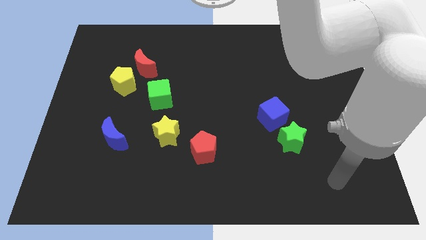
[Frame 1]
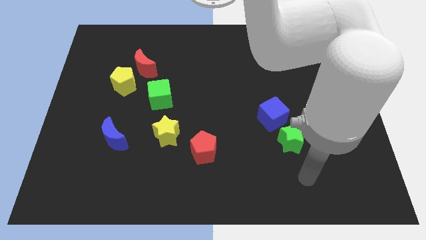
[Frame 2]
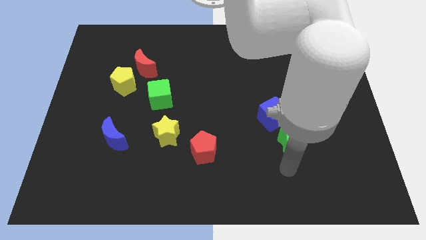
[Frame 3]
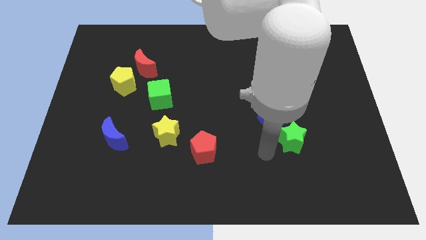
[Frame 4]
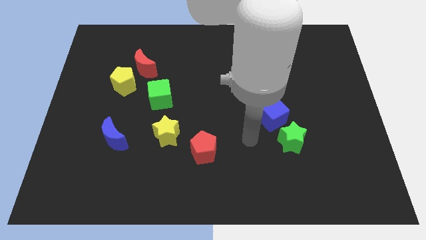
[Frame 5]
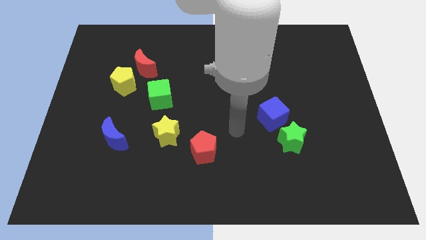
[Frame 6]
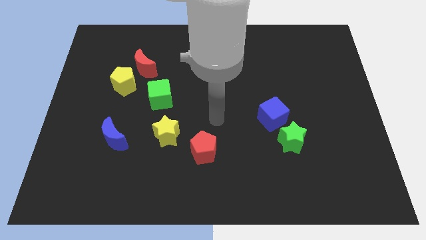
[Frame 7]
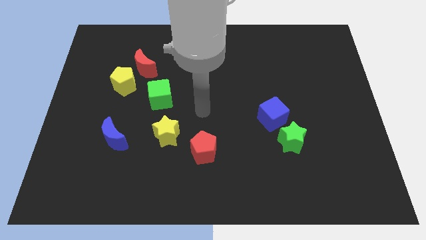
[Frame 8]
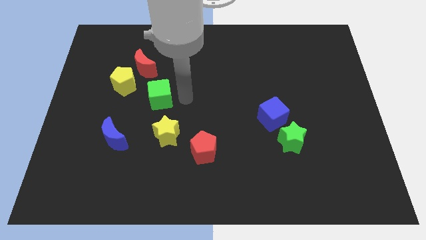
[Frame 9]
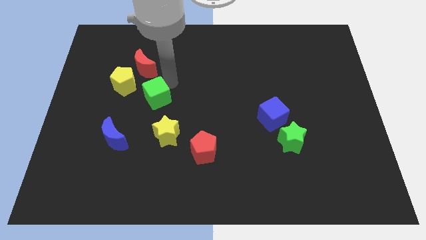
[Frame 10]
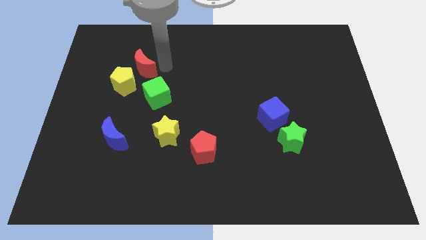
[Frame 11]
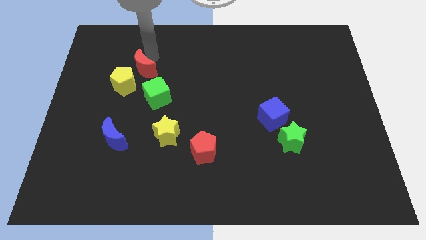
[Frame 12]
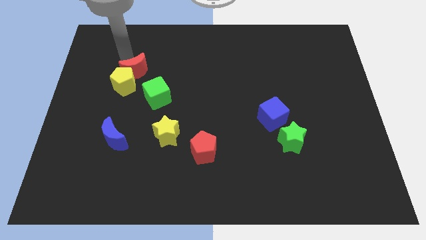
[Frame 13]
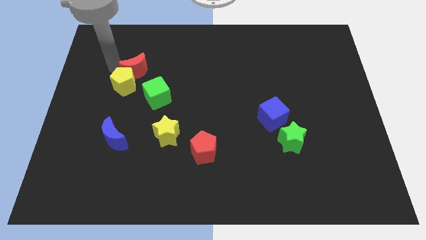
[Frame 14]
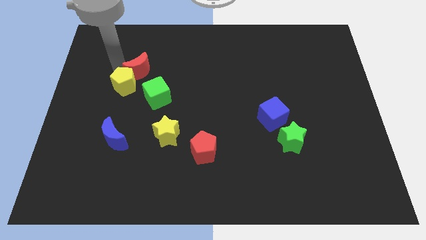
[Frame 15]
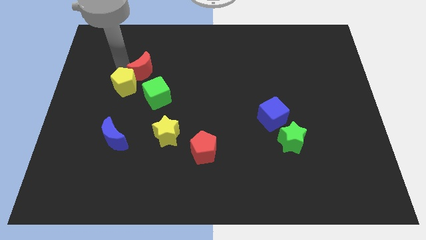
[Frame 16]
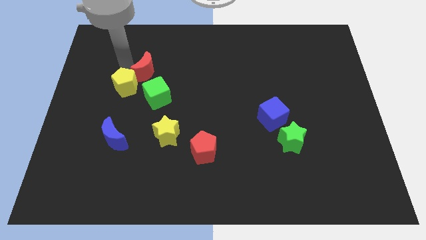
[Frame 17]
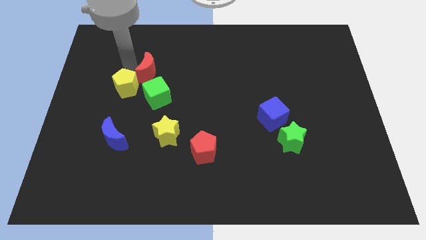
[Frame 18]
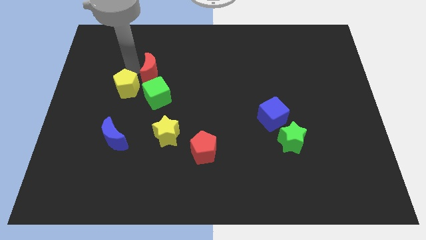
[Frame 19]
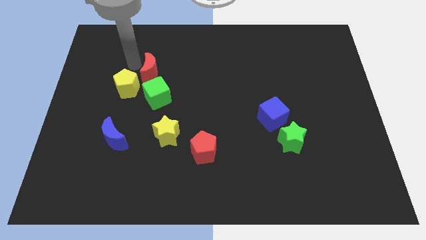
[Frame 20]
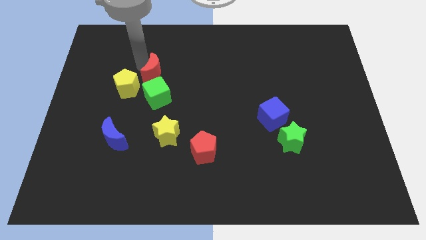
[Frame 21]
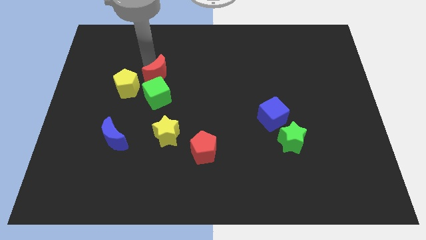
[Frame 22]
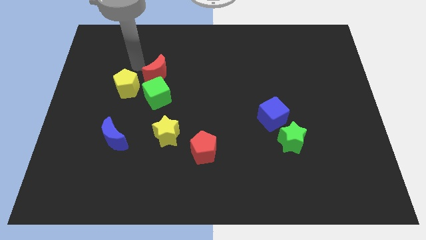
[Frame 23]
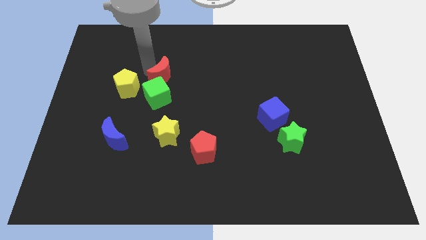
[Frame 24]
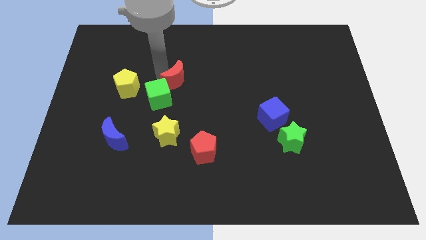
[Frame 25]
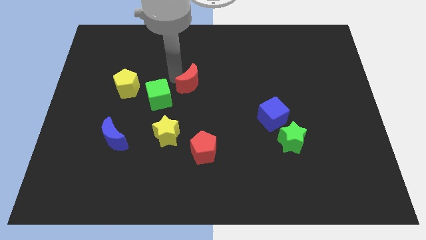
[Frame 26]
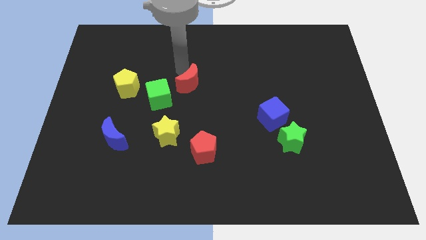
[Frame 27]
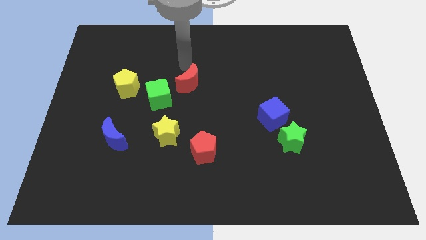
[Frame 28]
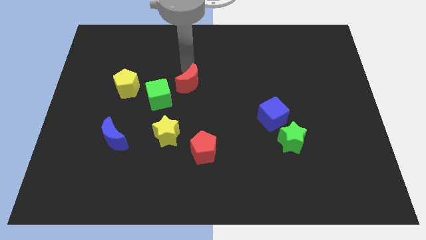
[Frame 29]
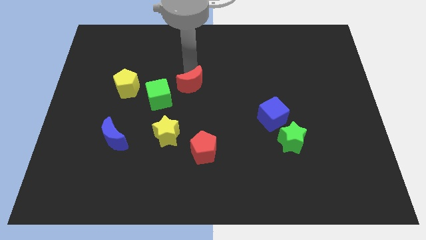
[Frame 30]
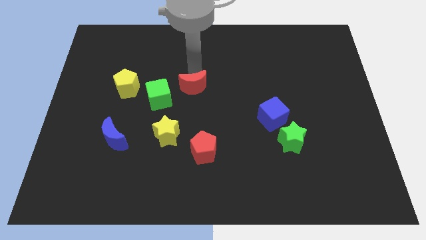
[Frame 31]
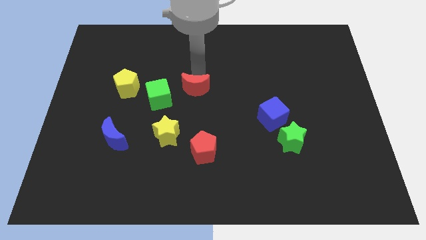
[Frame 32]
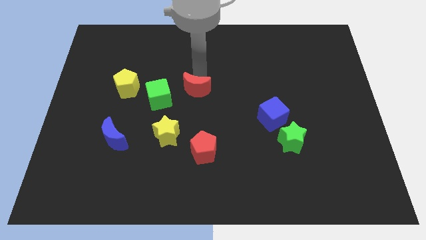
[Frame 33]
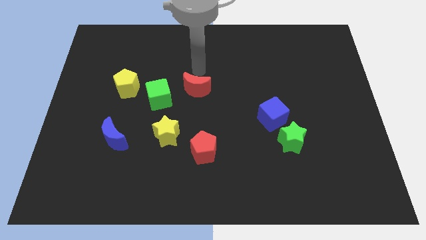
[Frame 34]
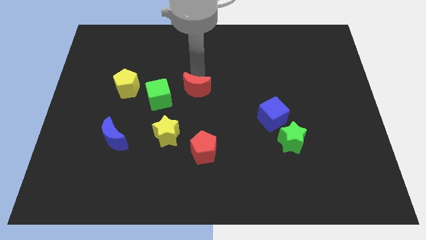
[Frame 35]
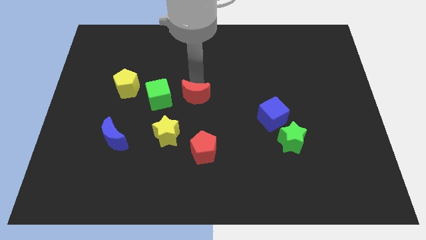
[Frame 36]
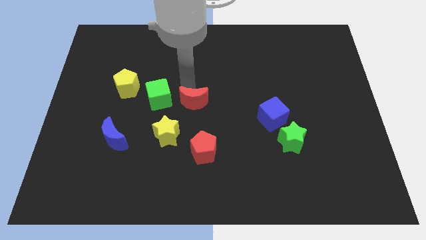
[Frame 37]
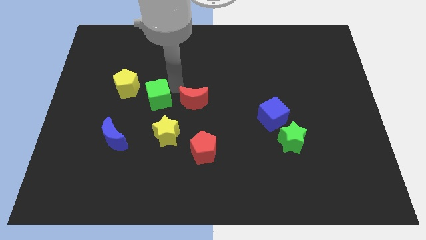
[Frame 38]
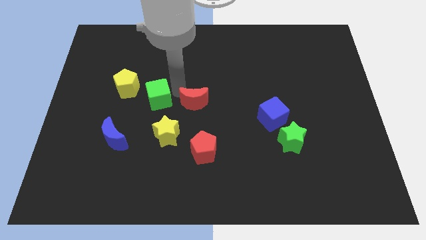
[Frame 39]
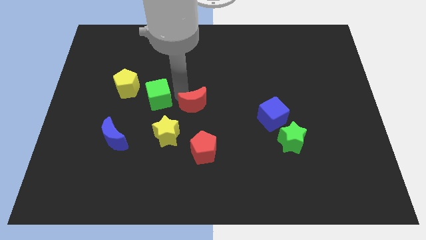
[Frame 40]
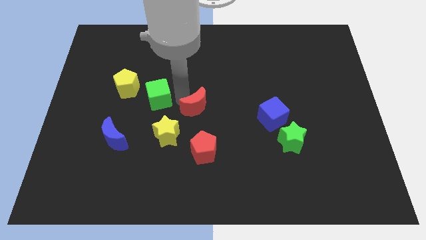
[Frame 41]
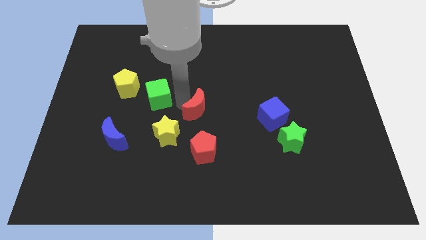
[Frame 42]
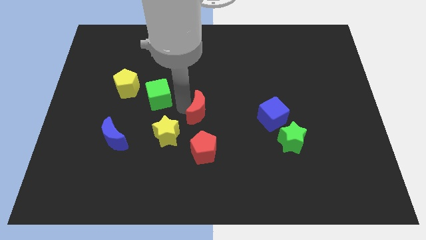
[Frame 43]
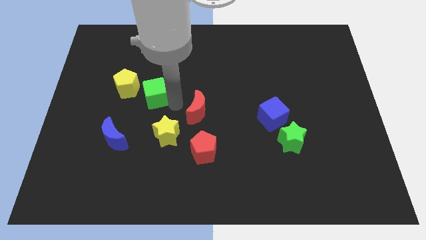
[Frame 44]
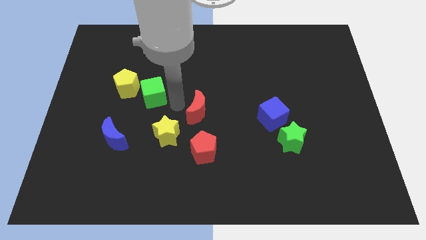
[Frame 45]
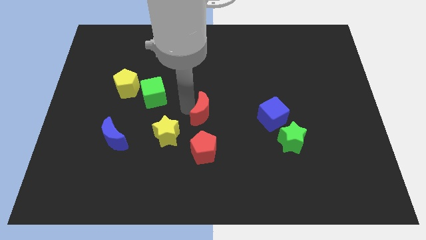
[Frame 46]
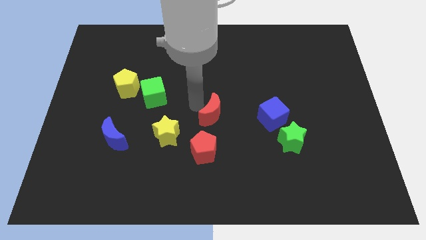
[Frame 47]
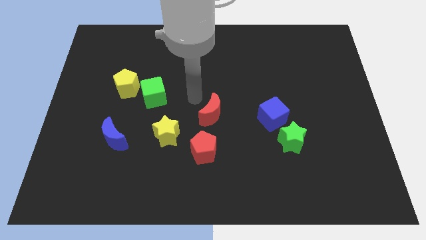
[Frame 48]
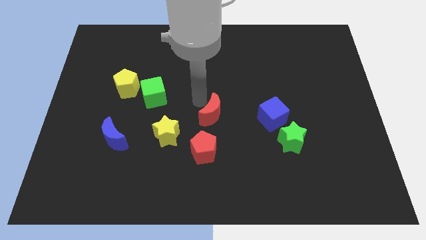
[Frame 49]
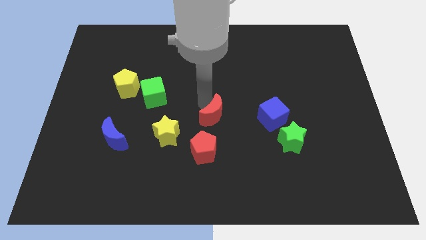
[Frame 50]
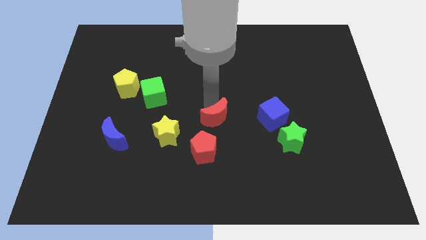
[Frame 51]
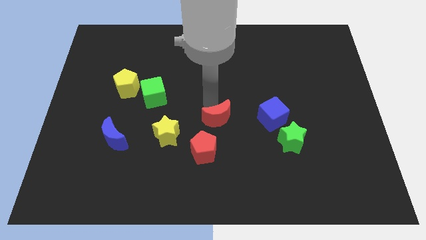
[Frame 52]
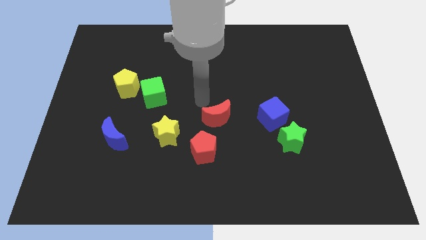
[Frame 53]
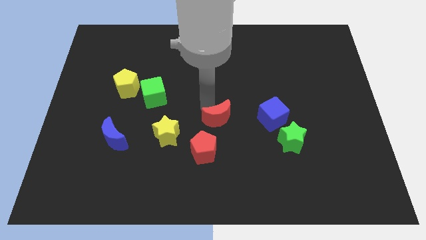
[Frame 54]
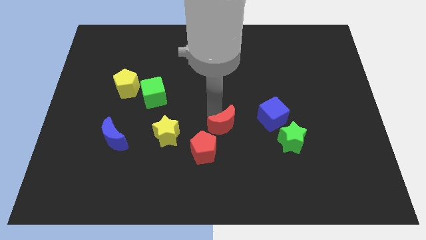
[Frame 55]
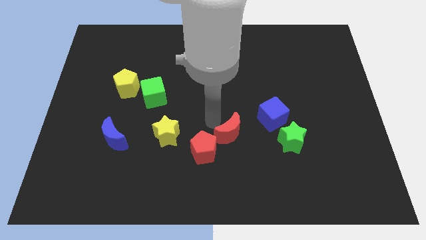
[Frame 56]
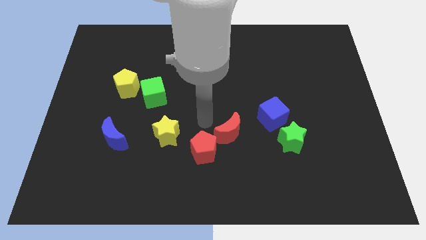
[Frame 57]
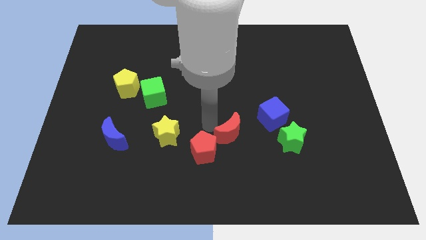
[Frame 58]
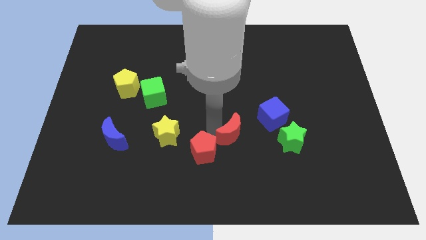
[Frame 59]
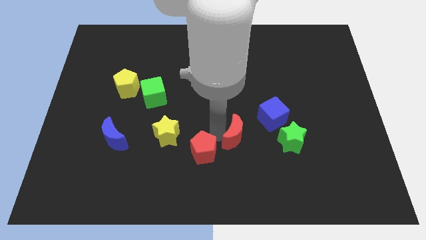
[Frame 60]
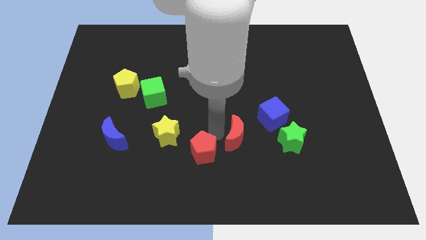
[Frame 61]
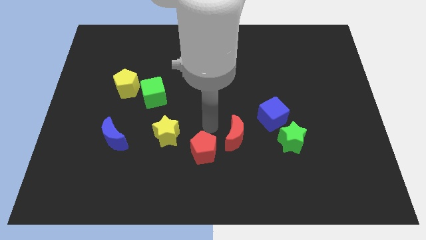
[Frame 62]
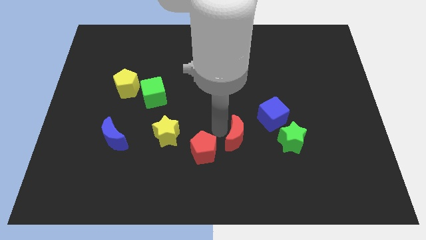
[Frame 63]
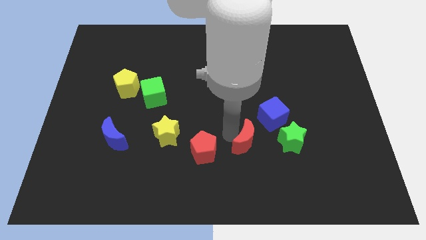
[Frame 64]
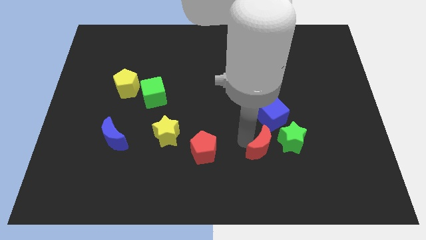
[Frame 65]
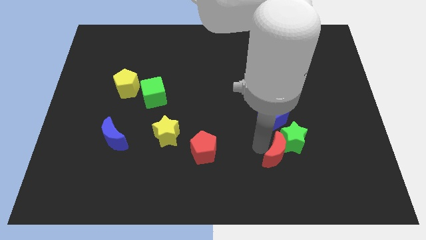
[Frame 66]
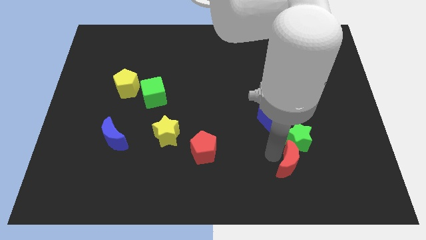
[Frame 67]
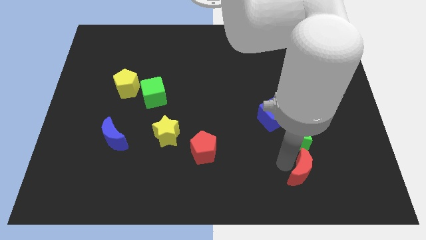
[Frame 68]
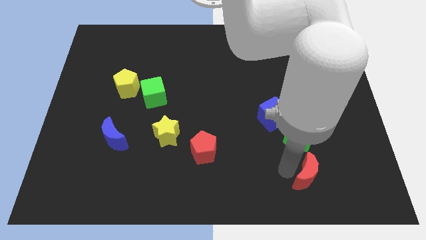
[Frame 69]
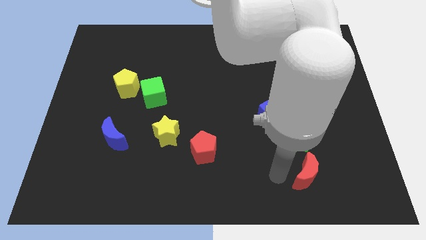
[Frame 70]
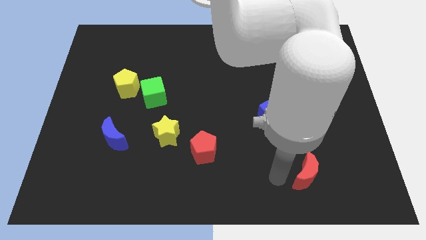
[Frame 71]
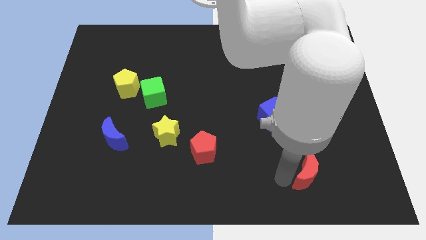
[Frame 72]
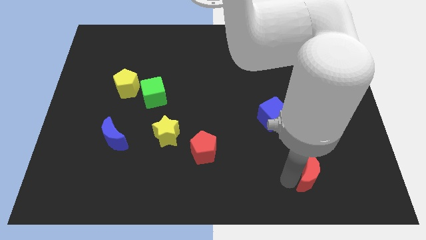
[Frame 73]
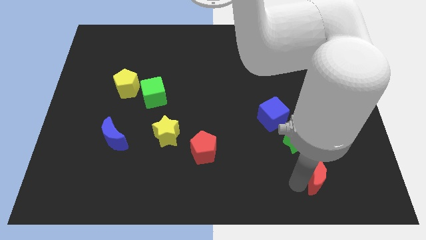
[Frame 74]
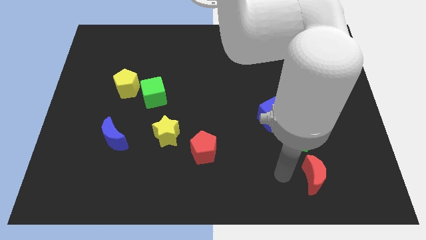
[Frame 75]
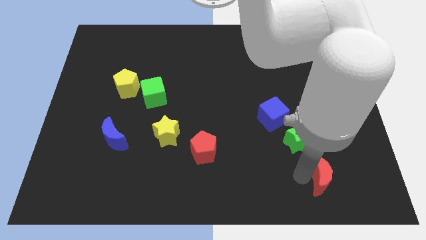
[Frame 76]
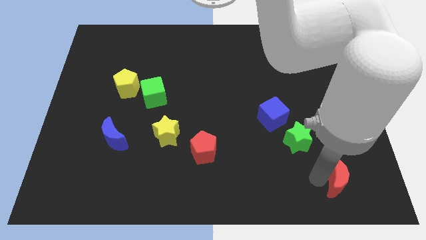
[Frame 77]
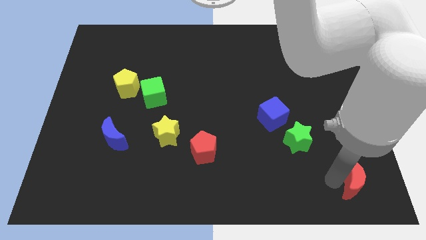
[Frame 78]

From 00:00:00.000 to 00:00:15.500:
slide the red moon to the lower right corner
